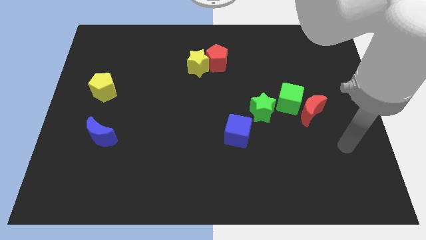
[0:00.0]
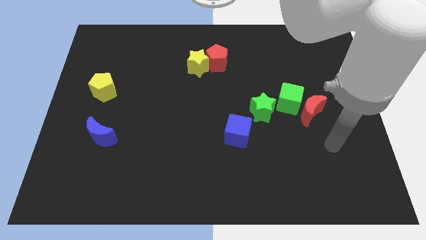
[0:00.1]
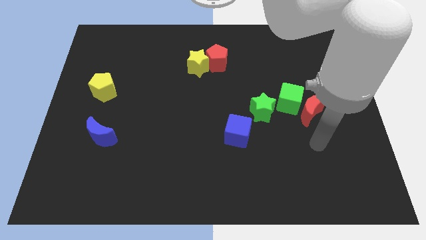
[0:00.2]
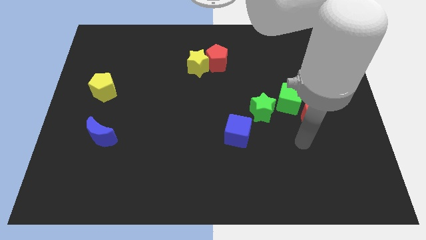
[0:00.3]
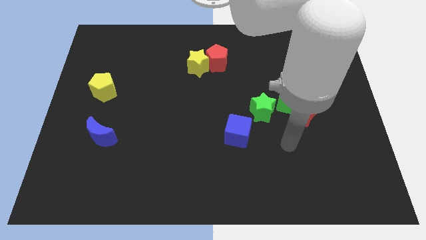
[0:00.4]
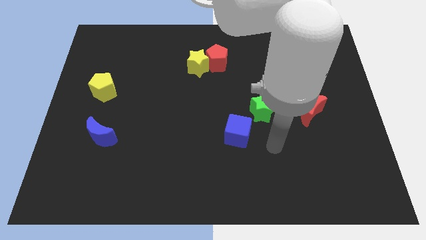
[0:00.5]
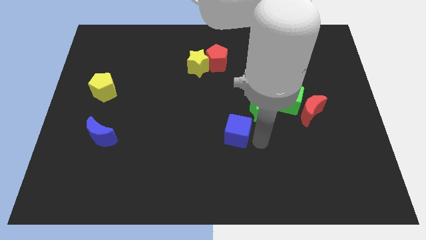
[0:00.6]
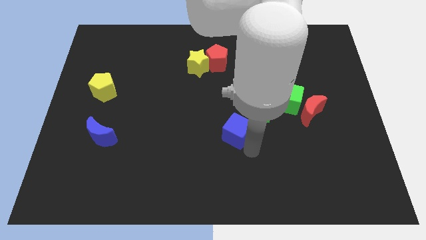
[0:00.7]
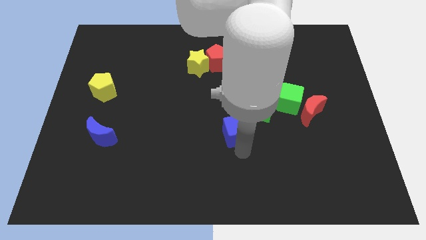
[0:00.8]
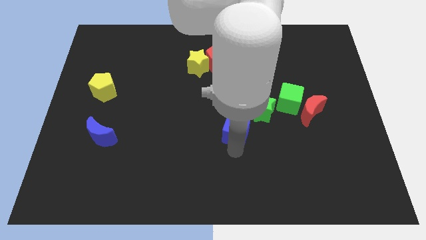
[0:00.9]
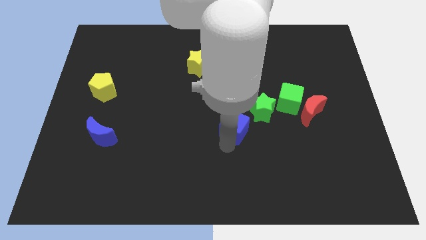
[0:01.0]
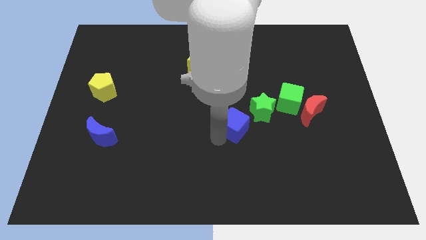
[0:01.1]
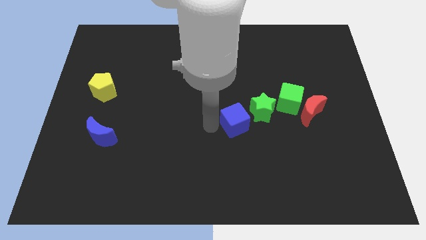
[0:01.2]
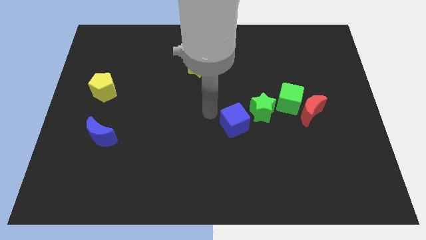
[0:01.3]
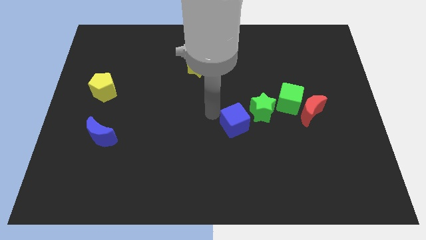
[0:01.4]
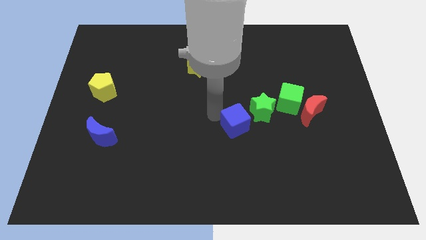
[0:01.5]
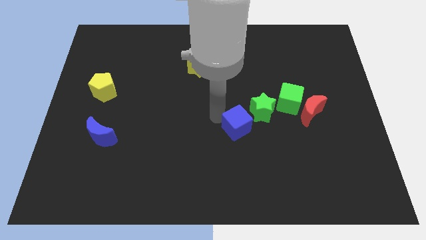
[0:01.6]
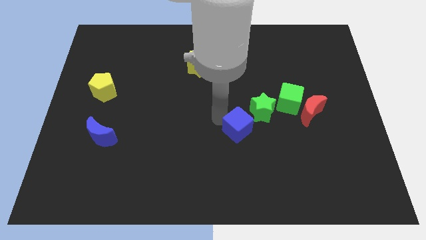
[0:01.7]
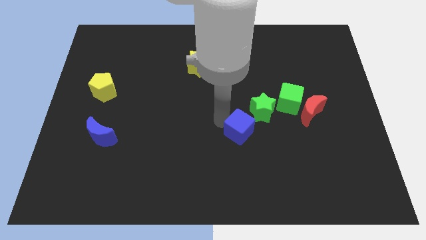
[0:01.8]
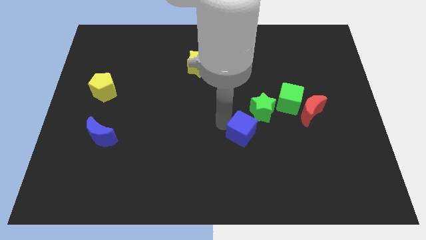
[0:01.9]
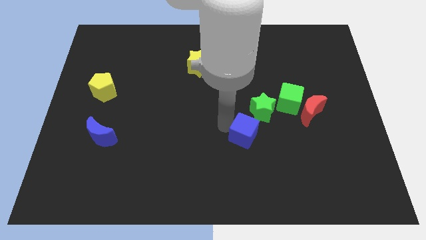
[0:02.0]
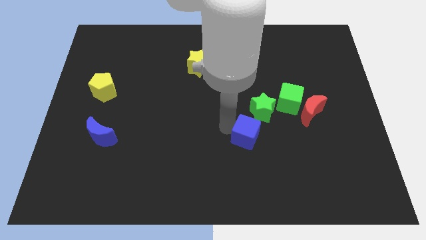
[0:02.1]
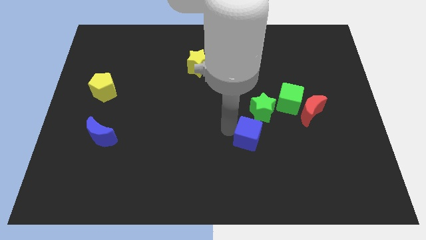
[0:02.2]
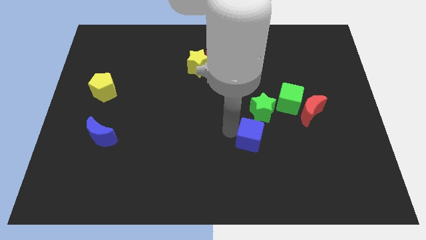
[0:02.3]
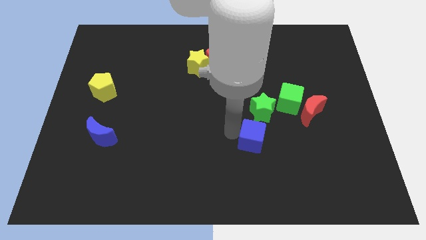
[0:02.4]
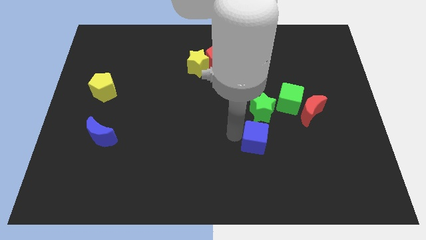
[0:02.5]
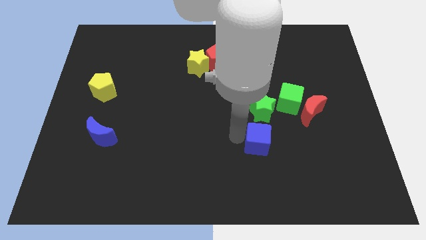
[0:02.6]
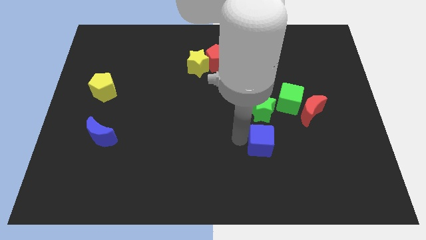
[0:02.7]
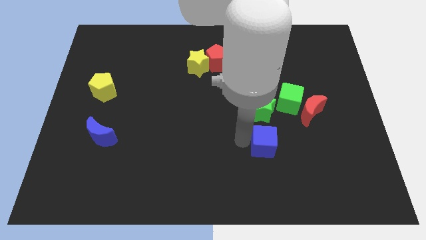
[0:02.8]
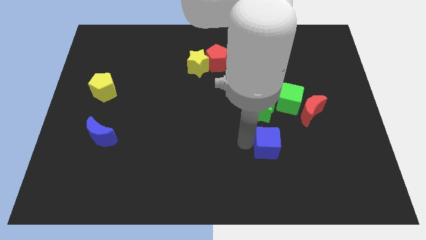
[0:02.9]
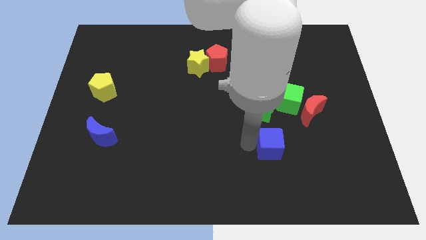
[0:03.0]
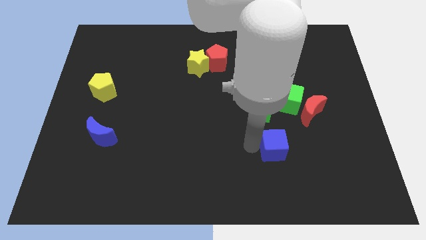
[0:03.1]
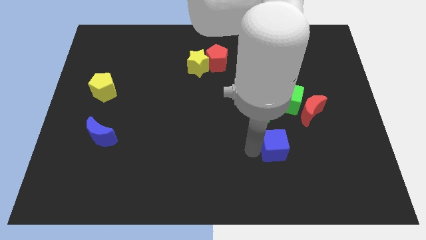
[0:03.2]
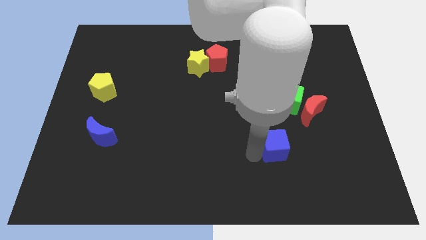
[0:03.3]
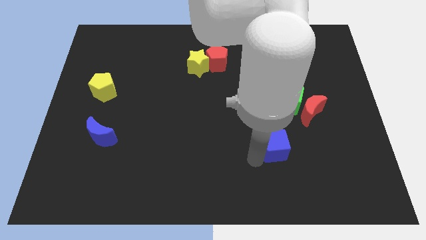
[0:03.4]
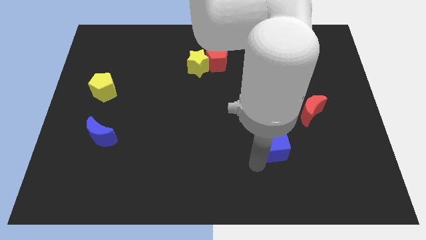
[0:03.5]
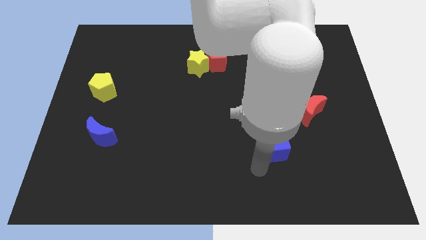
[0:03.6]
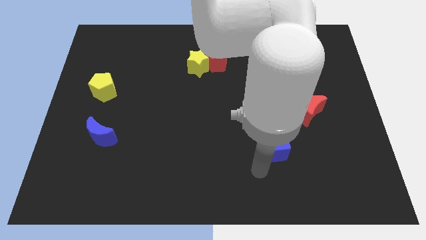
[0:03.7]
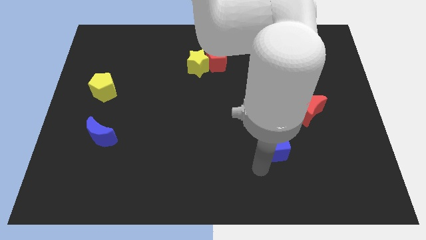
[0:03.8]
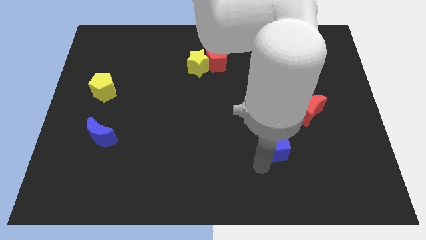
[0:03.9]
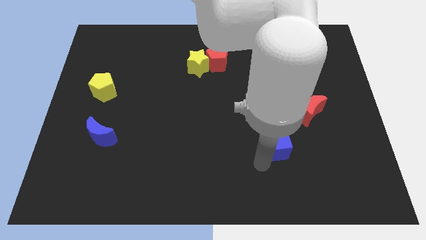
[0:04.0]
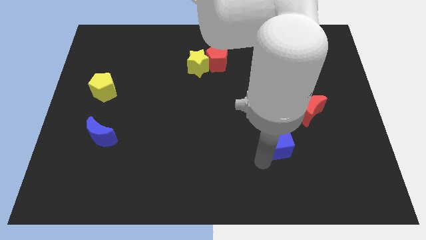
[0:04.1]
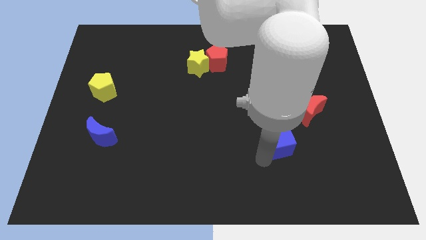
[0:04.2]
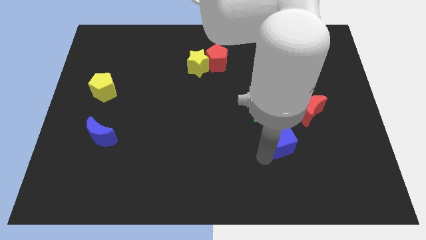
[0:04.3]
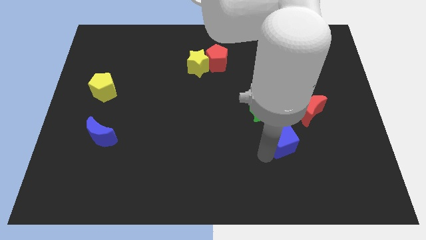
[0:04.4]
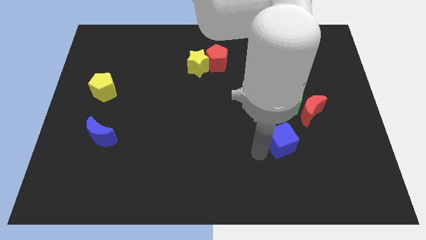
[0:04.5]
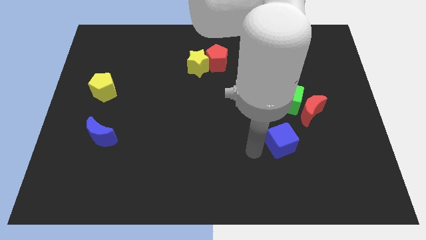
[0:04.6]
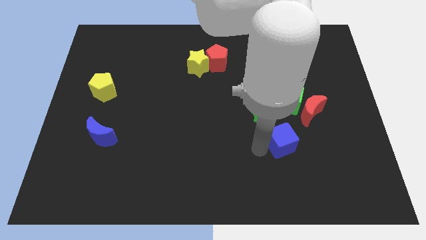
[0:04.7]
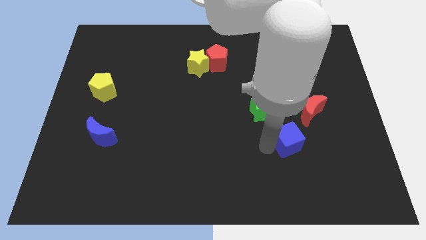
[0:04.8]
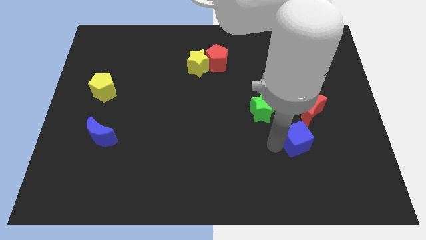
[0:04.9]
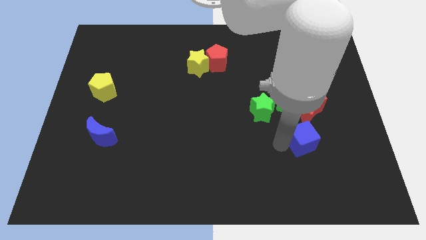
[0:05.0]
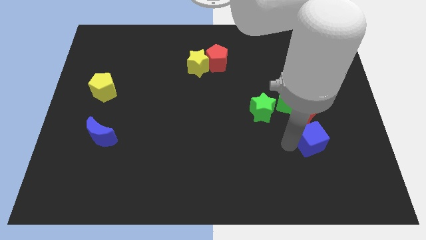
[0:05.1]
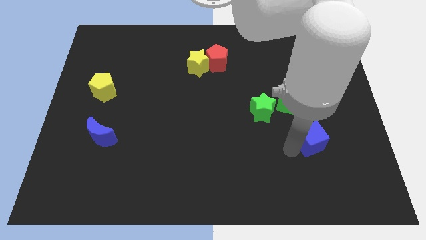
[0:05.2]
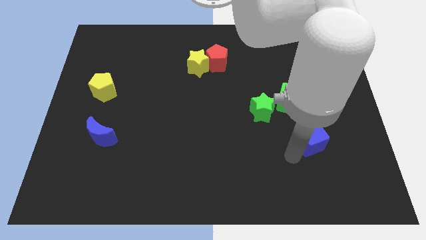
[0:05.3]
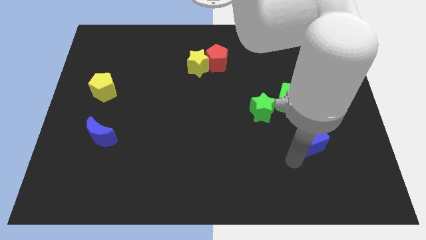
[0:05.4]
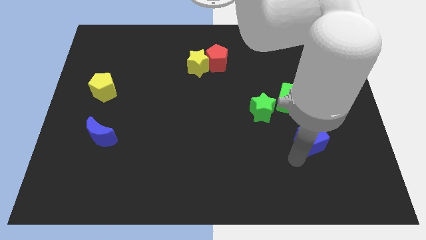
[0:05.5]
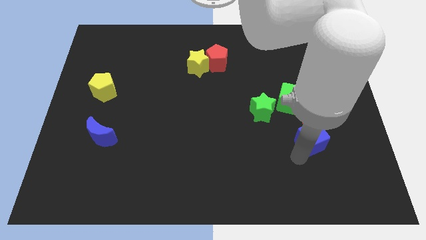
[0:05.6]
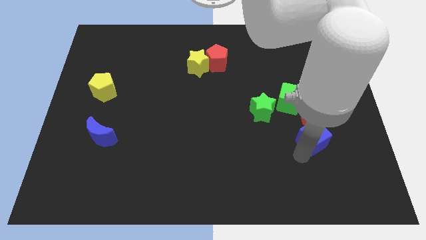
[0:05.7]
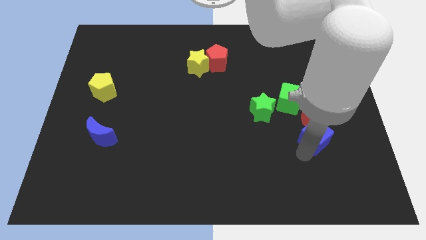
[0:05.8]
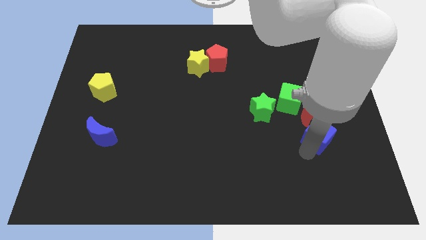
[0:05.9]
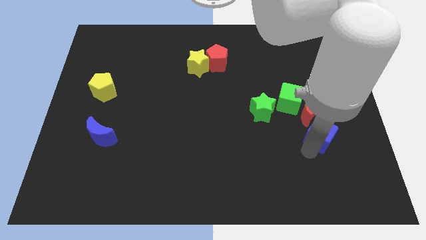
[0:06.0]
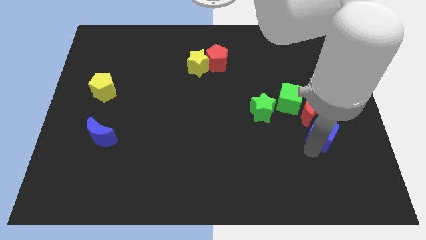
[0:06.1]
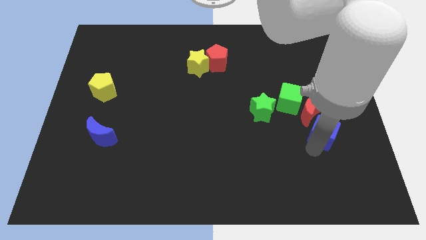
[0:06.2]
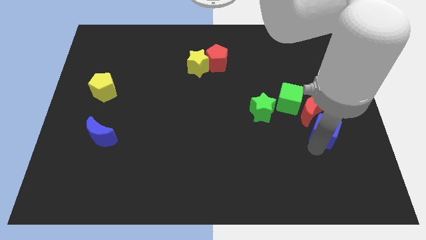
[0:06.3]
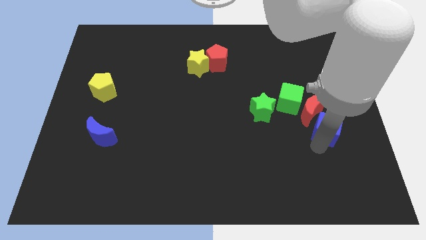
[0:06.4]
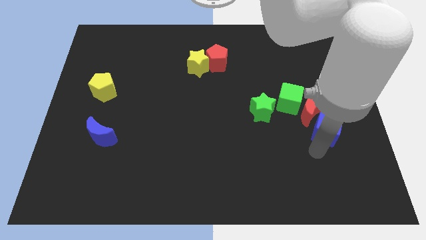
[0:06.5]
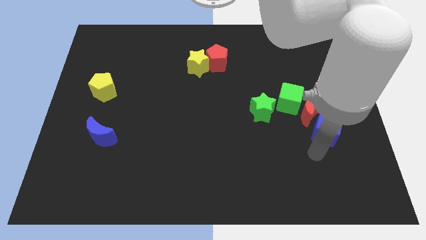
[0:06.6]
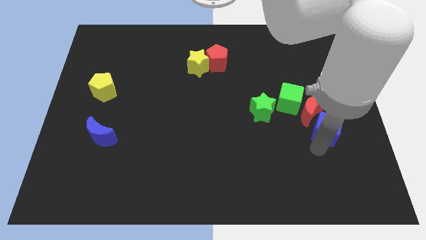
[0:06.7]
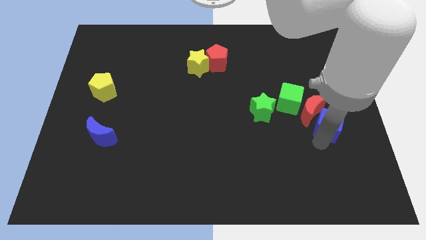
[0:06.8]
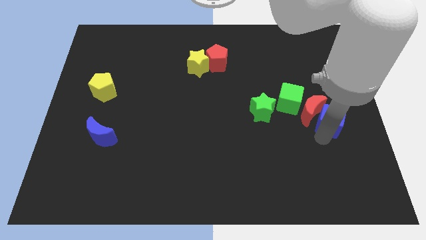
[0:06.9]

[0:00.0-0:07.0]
put the blue cube to the right side of the board
